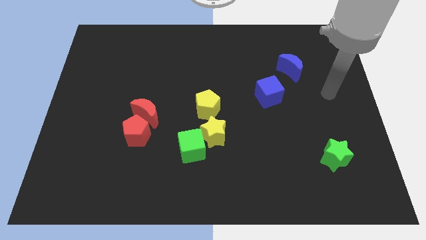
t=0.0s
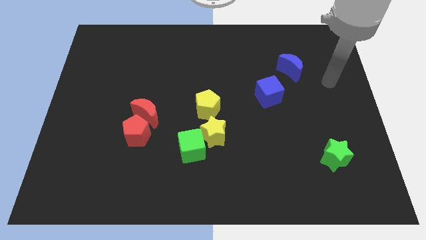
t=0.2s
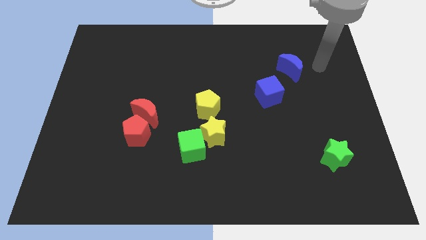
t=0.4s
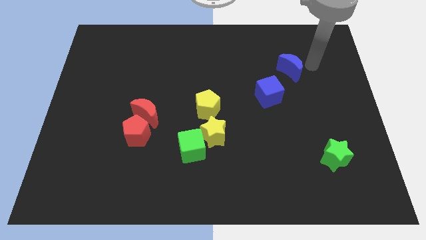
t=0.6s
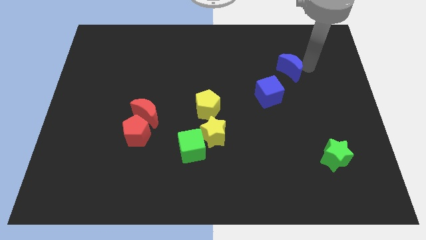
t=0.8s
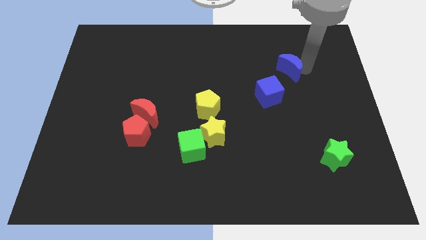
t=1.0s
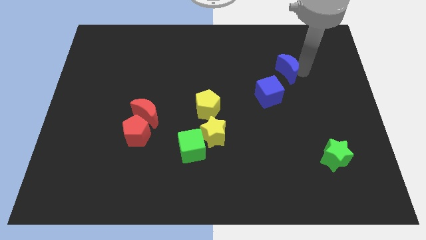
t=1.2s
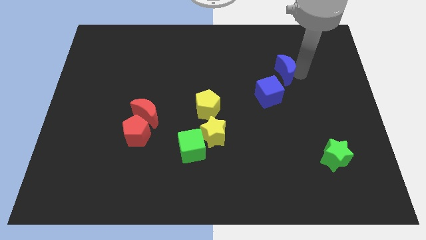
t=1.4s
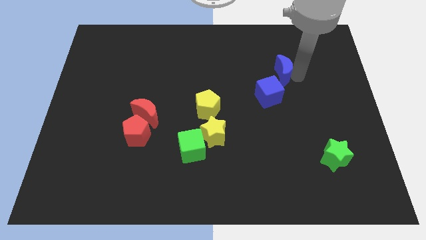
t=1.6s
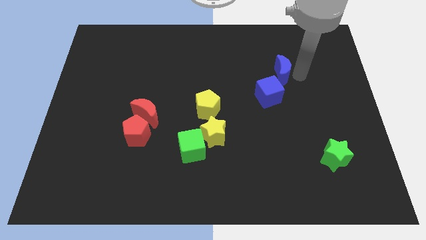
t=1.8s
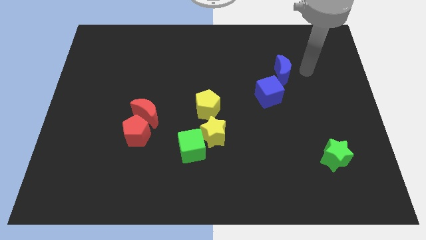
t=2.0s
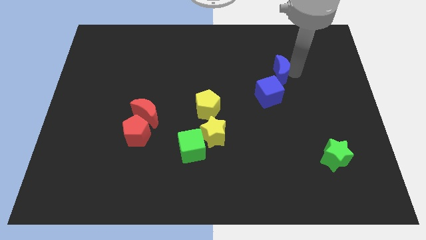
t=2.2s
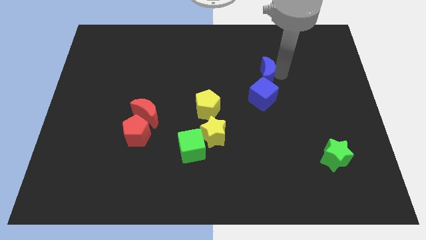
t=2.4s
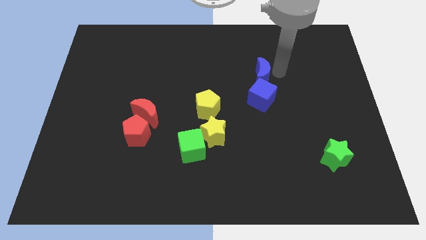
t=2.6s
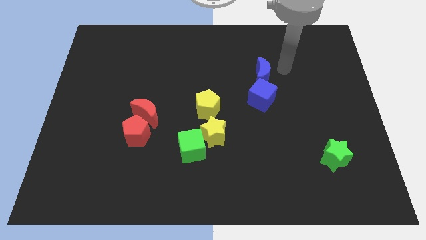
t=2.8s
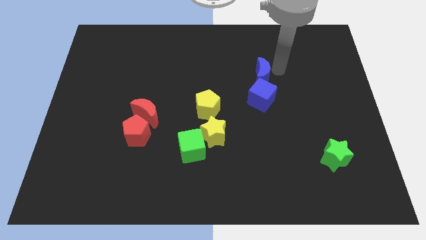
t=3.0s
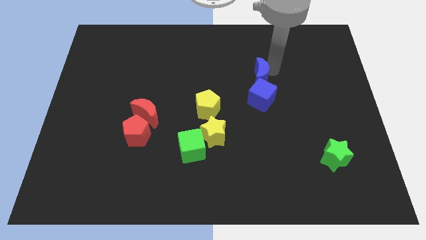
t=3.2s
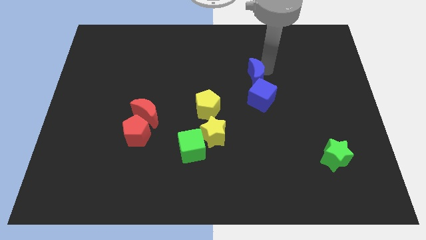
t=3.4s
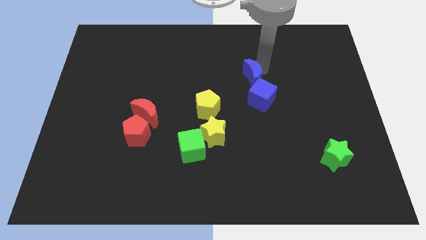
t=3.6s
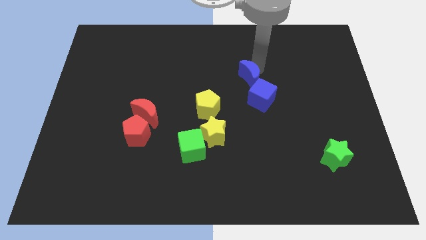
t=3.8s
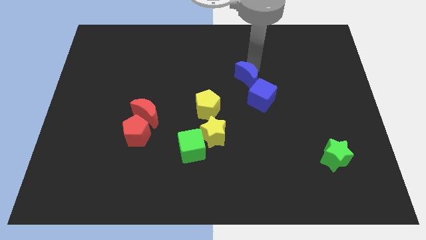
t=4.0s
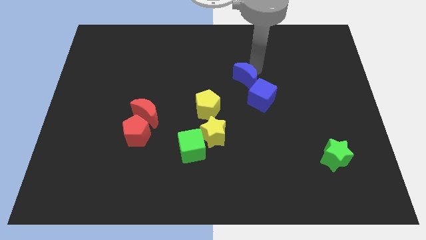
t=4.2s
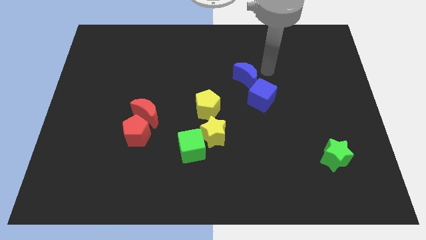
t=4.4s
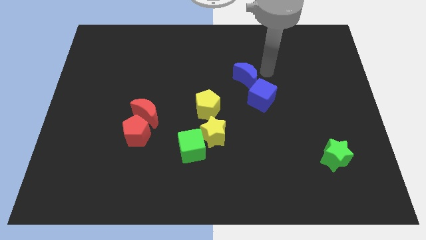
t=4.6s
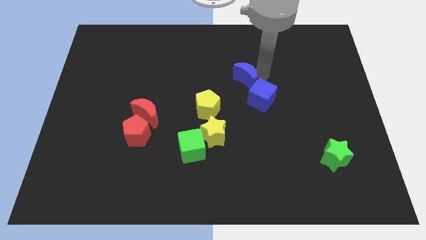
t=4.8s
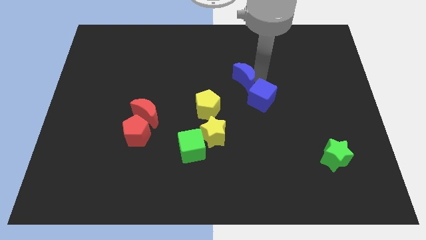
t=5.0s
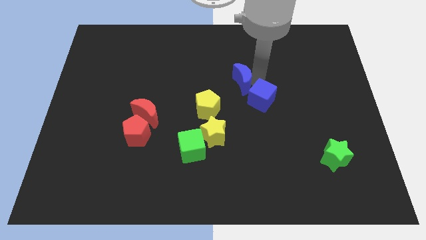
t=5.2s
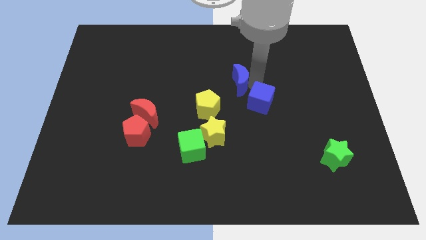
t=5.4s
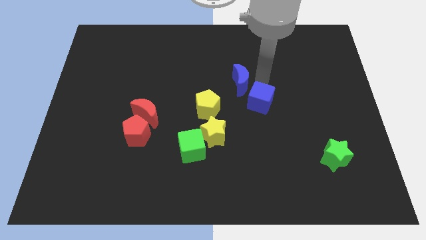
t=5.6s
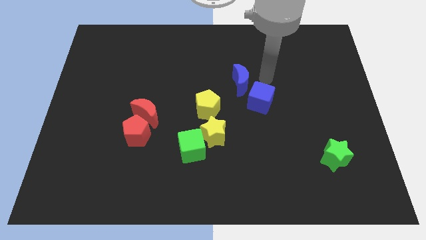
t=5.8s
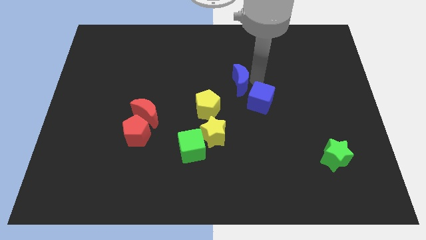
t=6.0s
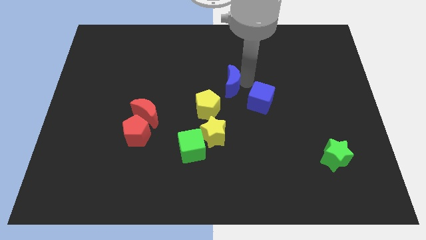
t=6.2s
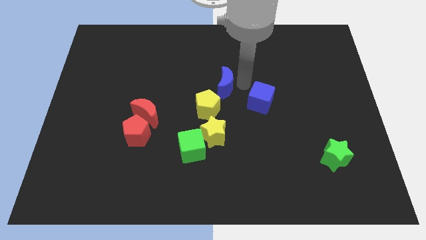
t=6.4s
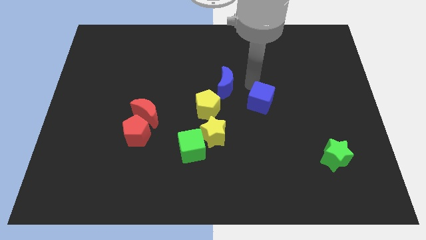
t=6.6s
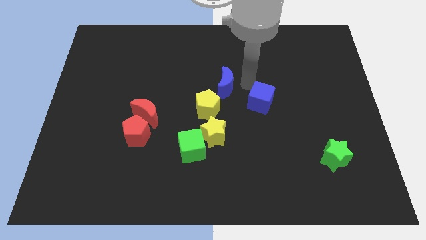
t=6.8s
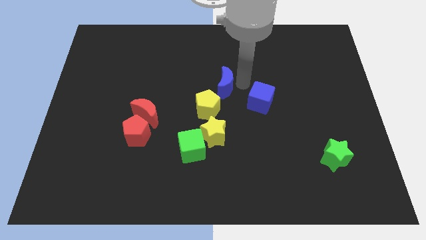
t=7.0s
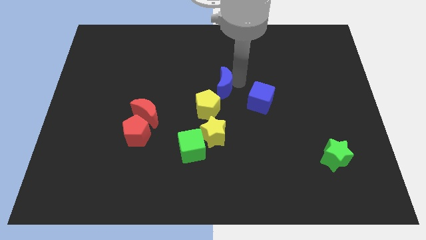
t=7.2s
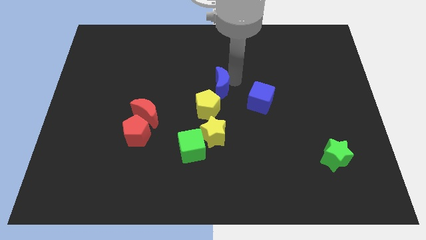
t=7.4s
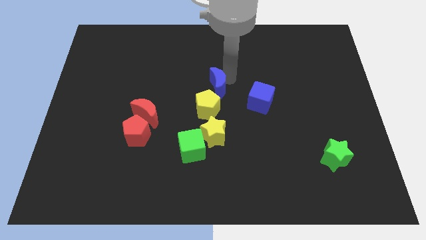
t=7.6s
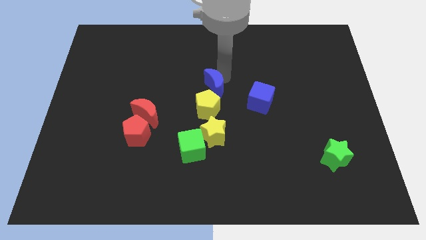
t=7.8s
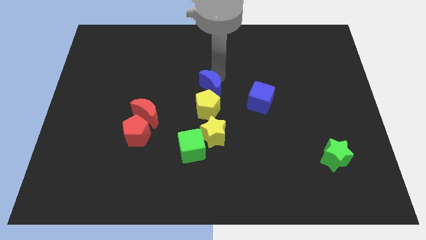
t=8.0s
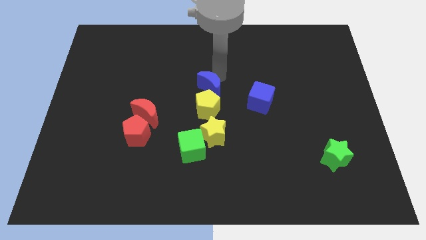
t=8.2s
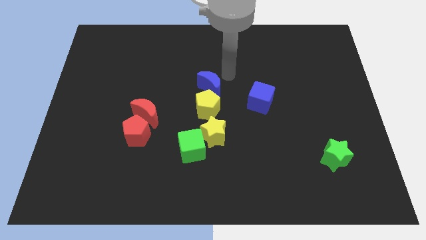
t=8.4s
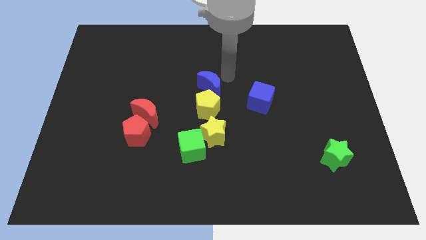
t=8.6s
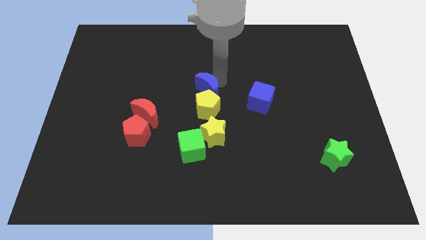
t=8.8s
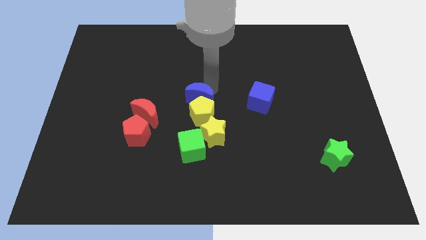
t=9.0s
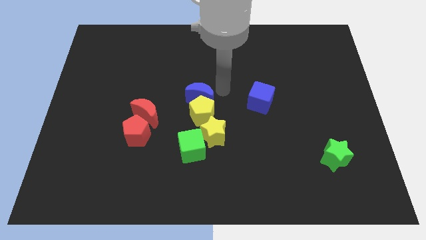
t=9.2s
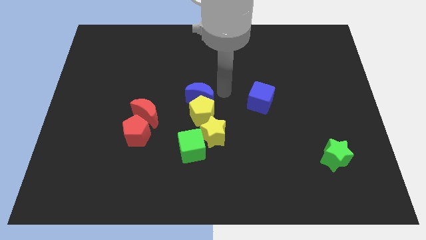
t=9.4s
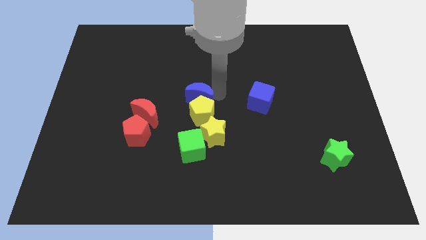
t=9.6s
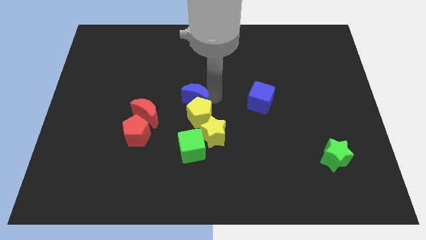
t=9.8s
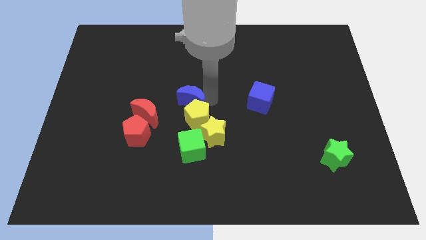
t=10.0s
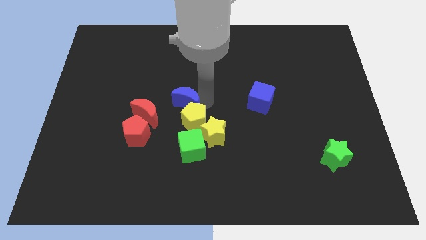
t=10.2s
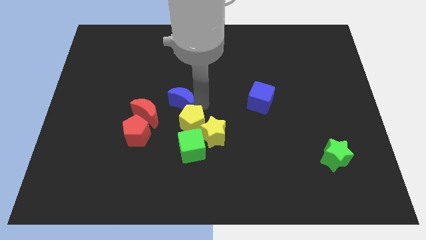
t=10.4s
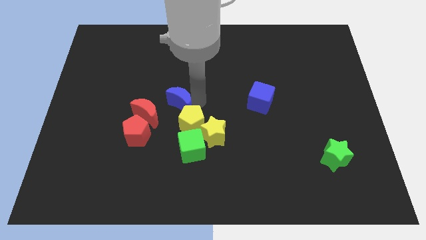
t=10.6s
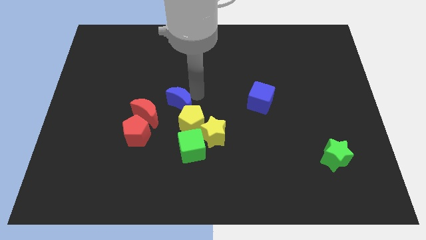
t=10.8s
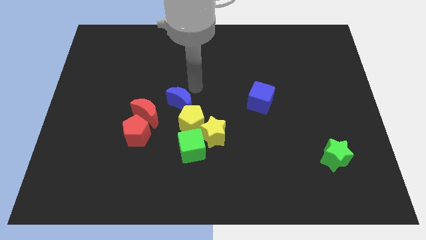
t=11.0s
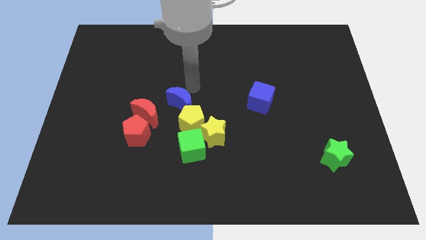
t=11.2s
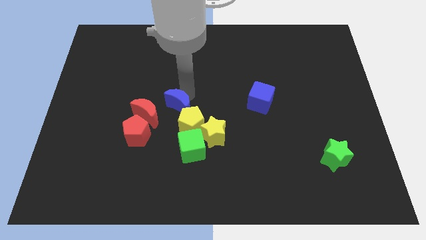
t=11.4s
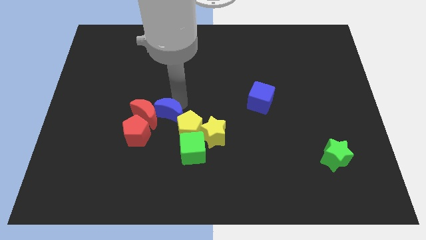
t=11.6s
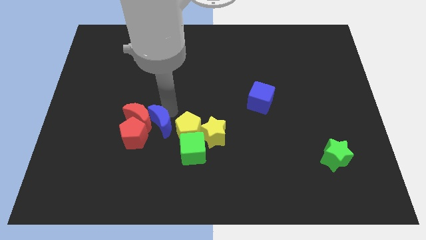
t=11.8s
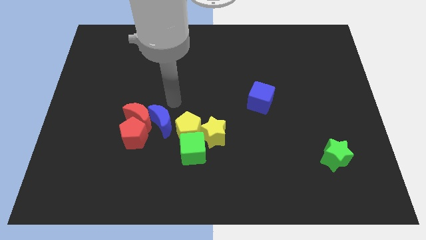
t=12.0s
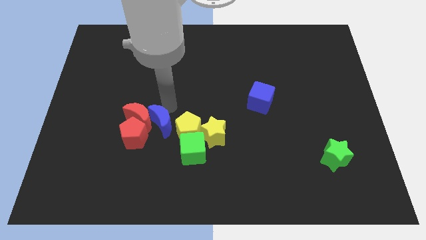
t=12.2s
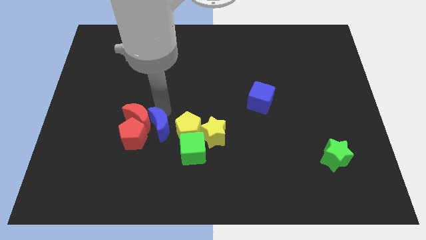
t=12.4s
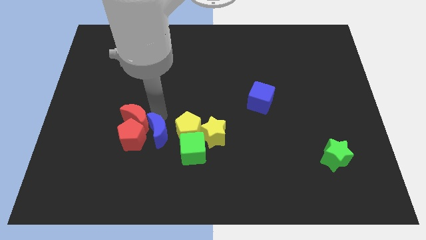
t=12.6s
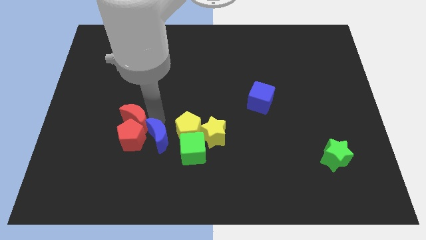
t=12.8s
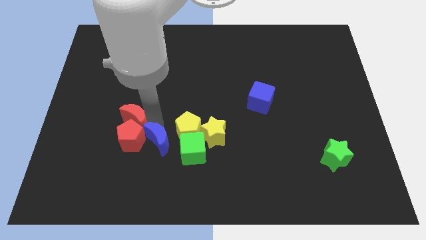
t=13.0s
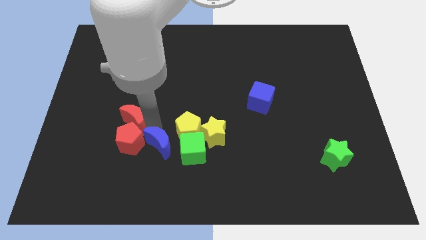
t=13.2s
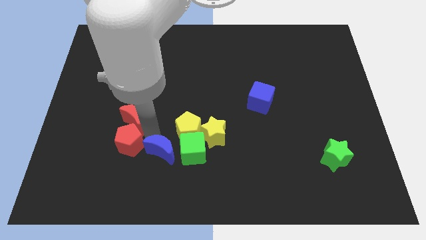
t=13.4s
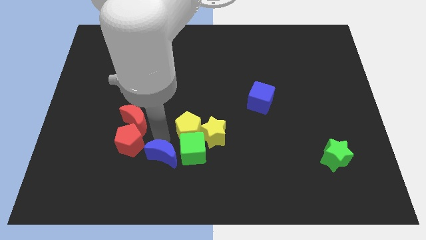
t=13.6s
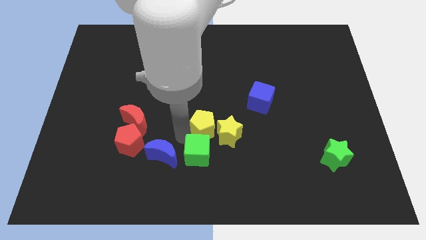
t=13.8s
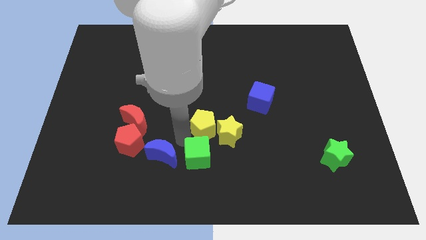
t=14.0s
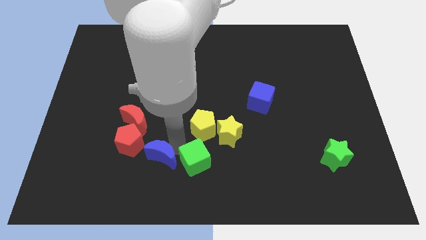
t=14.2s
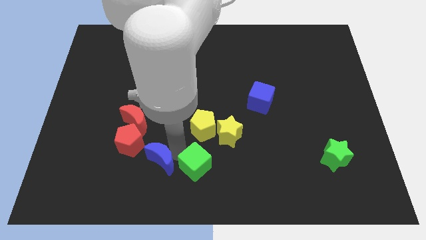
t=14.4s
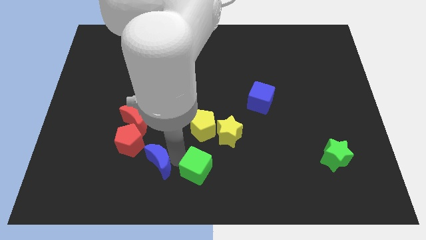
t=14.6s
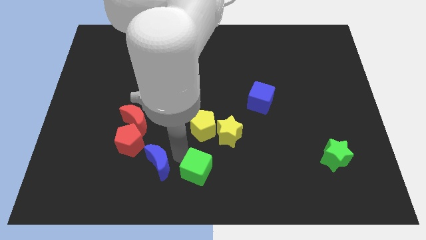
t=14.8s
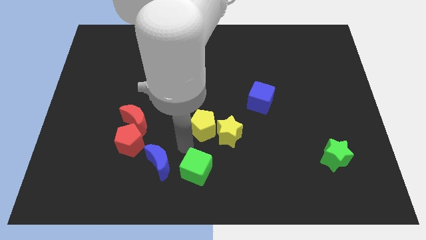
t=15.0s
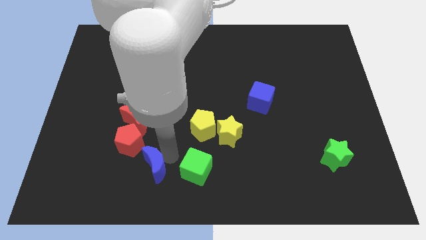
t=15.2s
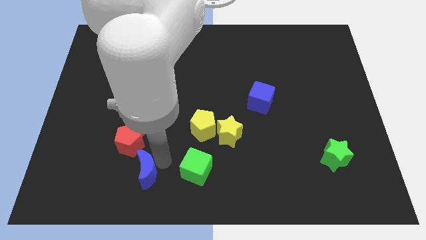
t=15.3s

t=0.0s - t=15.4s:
move the blue moon below the red pentagon
